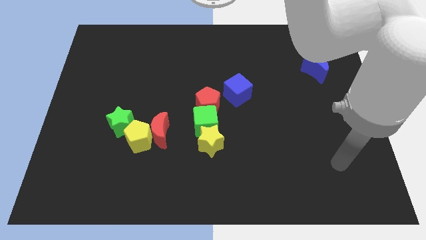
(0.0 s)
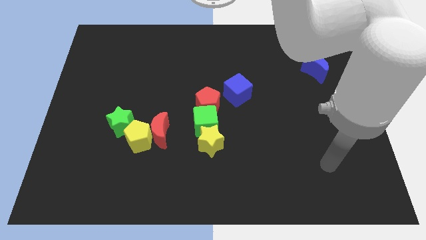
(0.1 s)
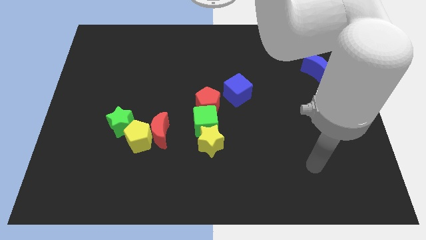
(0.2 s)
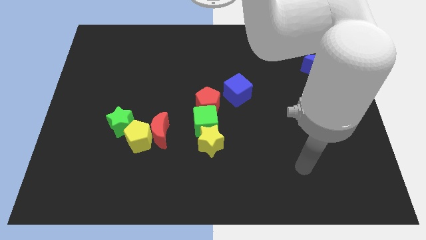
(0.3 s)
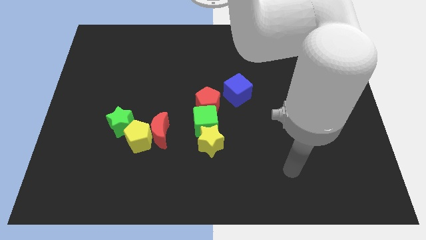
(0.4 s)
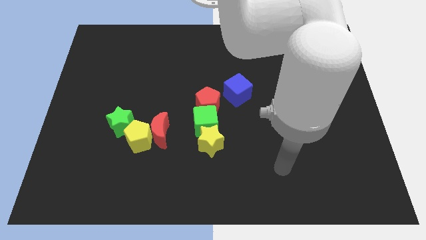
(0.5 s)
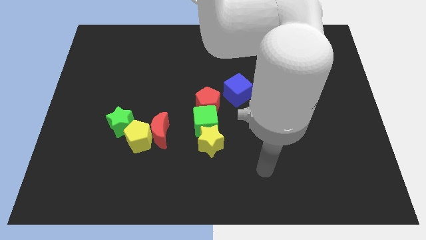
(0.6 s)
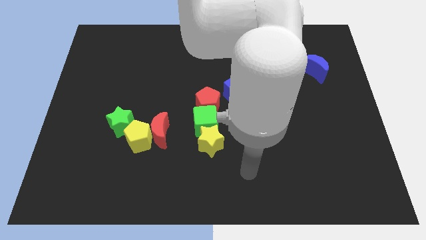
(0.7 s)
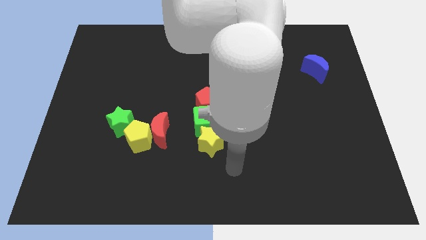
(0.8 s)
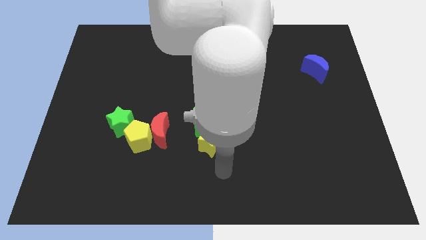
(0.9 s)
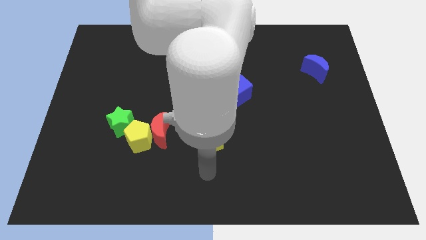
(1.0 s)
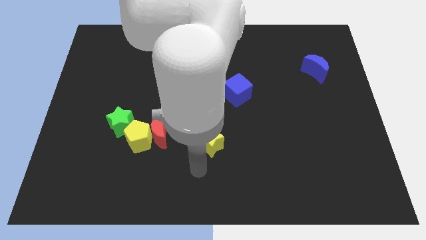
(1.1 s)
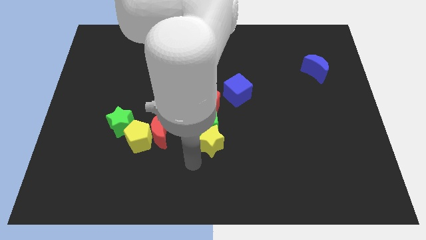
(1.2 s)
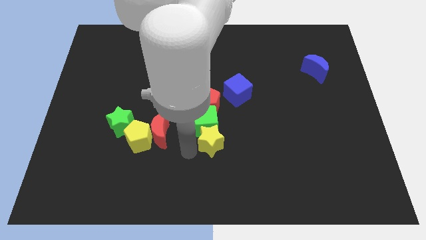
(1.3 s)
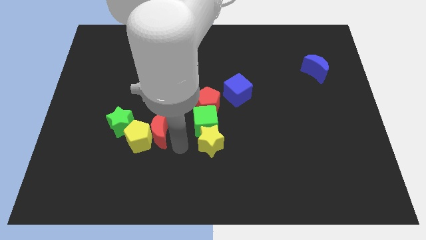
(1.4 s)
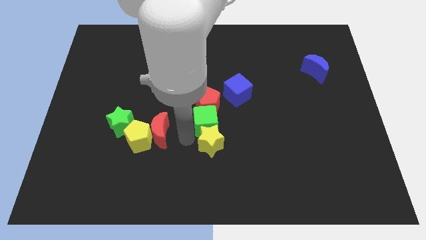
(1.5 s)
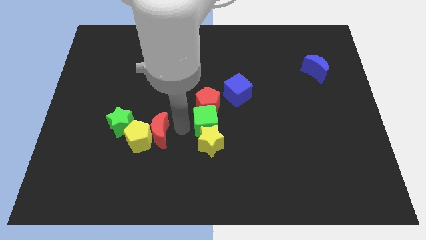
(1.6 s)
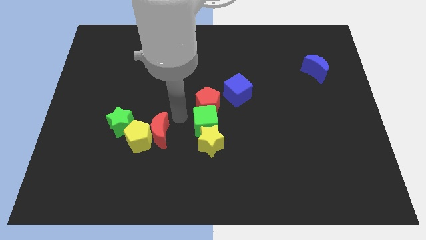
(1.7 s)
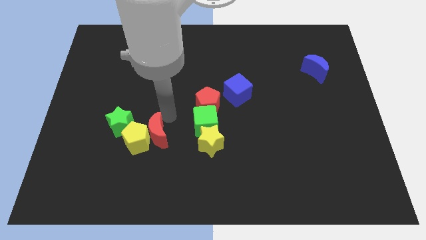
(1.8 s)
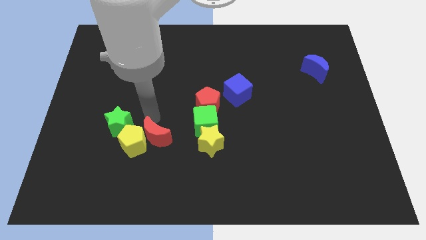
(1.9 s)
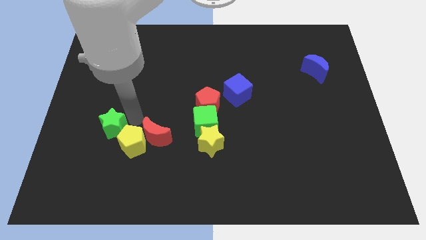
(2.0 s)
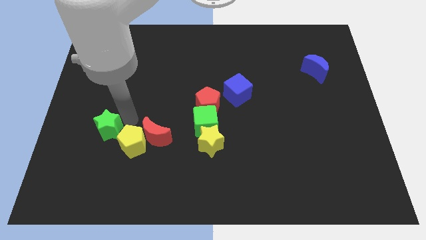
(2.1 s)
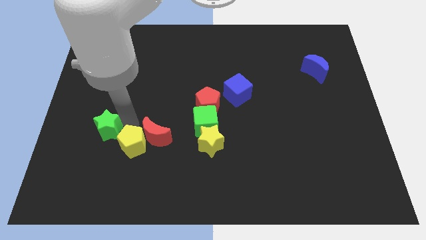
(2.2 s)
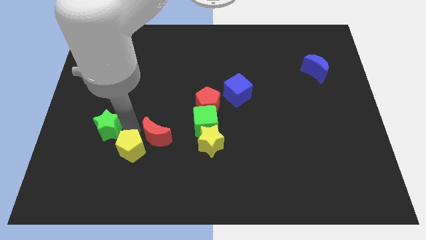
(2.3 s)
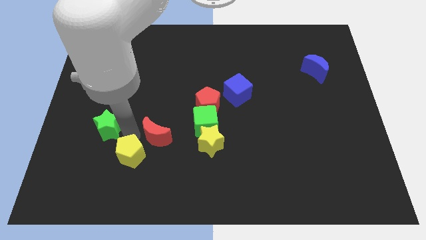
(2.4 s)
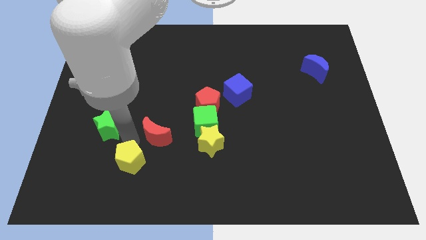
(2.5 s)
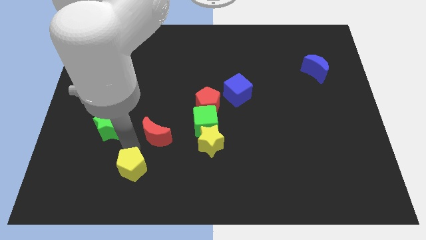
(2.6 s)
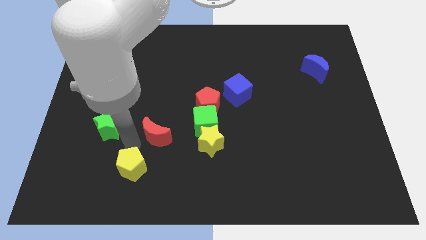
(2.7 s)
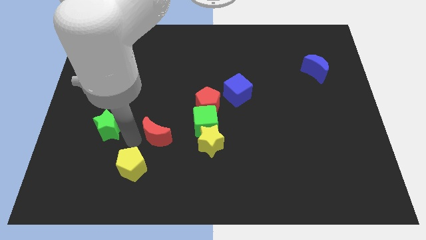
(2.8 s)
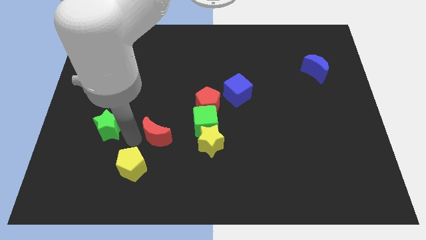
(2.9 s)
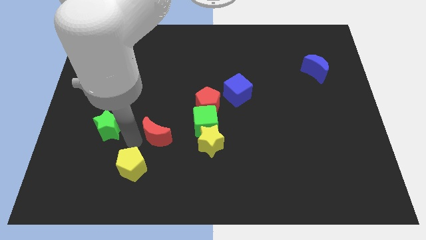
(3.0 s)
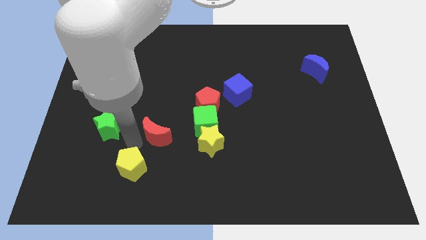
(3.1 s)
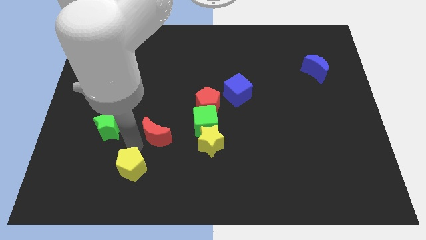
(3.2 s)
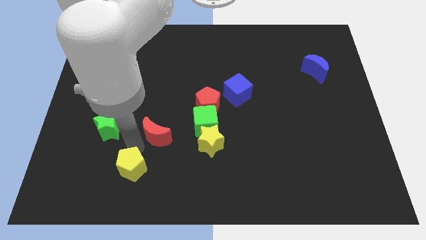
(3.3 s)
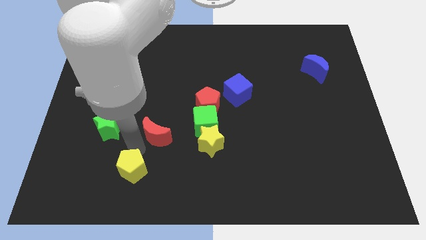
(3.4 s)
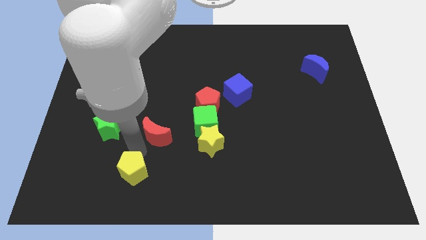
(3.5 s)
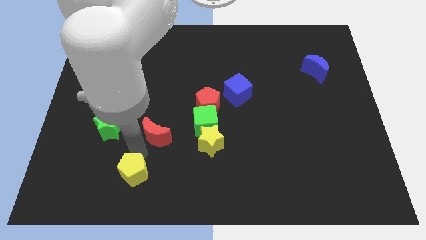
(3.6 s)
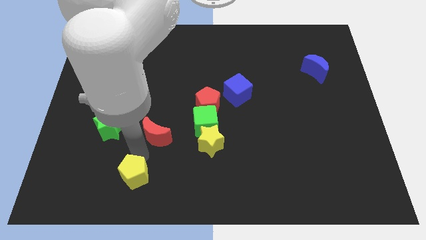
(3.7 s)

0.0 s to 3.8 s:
move the yellow pentagon away from the red moon and green star

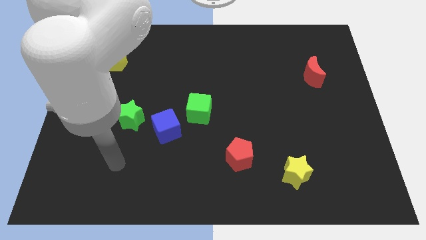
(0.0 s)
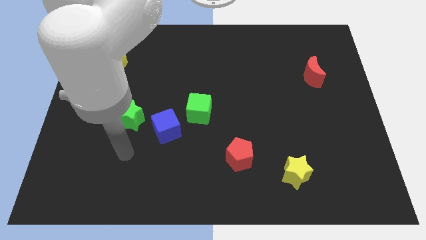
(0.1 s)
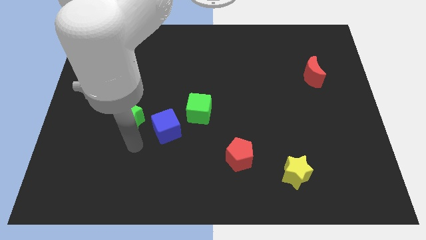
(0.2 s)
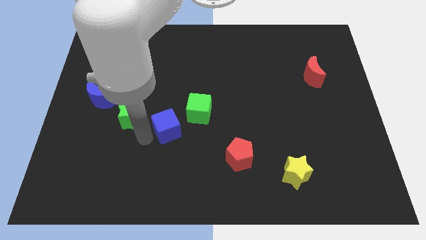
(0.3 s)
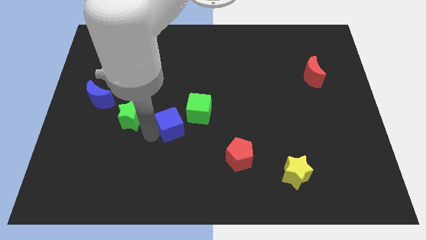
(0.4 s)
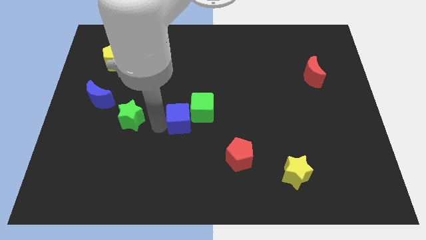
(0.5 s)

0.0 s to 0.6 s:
move the green star away from the blue cube

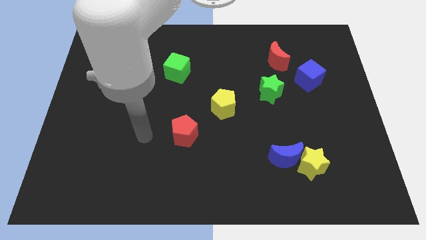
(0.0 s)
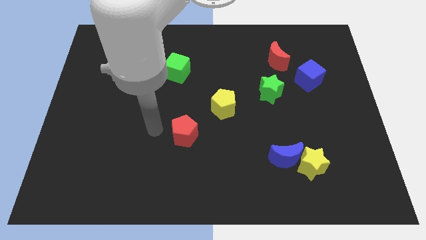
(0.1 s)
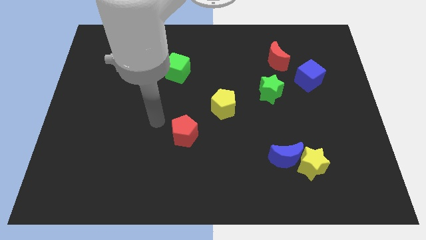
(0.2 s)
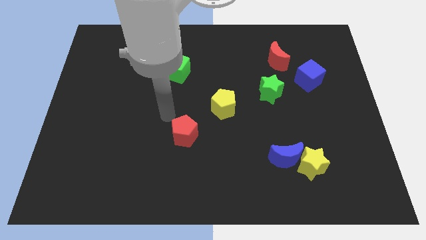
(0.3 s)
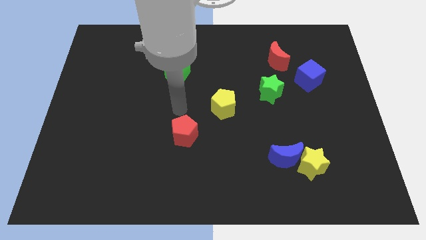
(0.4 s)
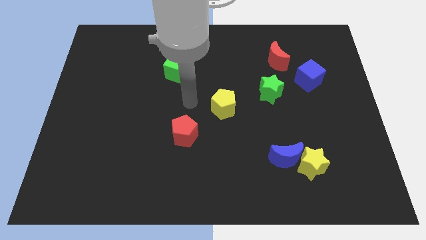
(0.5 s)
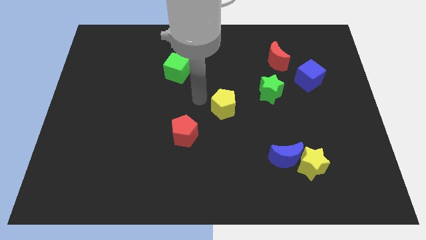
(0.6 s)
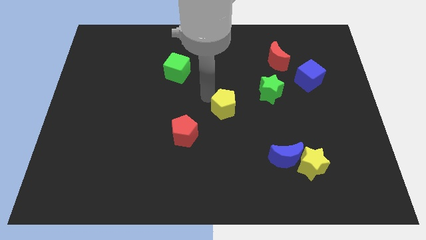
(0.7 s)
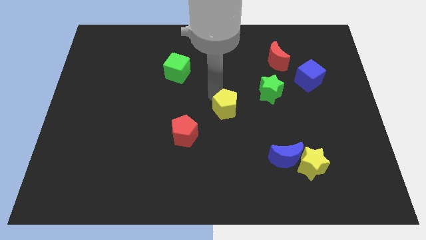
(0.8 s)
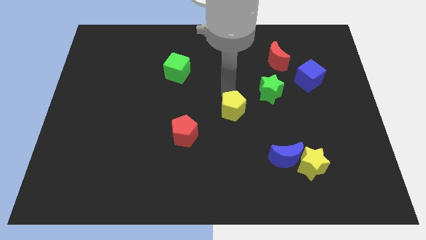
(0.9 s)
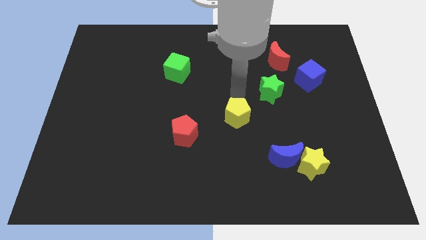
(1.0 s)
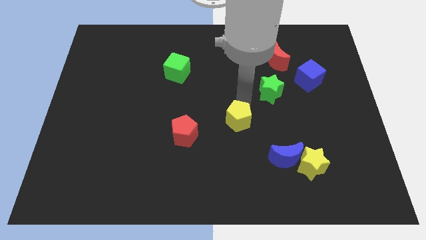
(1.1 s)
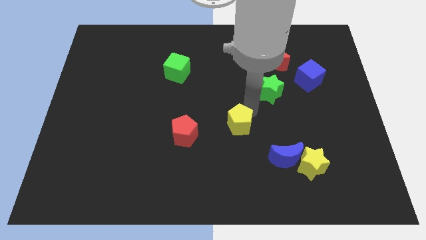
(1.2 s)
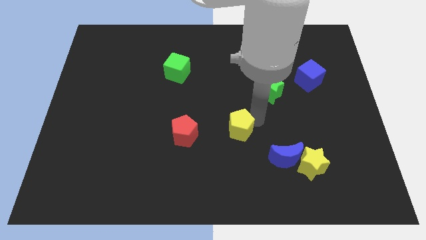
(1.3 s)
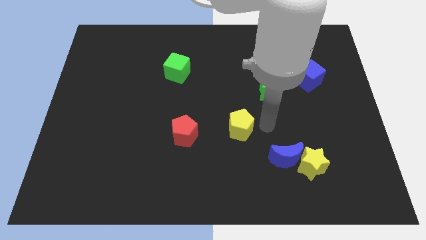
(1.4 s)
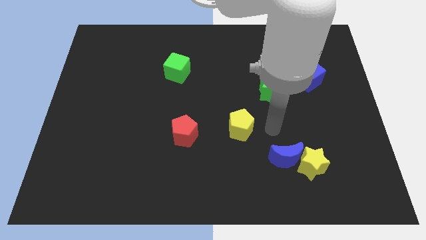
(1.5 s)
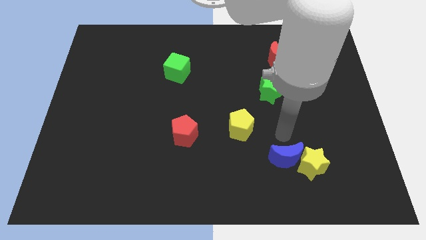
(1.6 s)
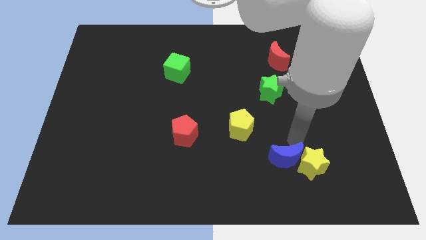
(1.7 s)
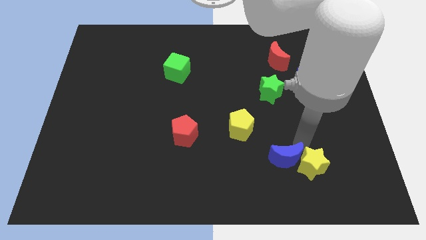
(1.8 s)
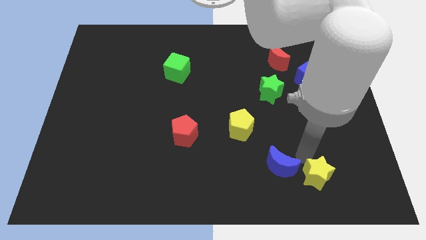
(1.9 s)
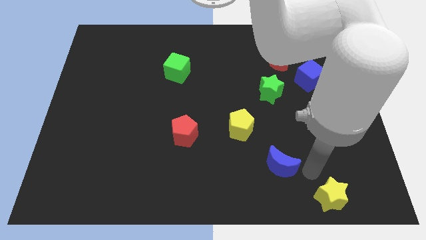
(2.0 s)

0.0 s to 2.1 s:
move the blue moon away from the yellow star

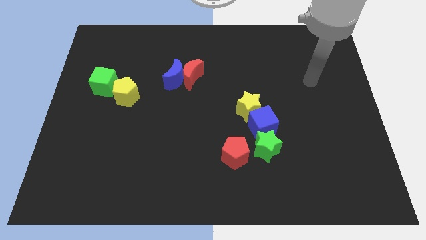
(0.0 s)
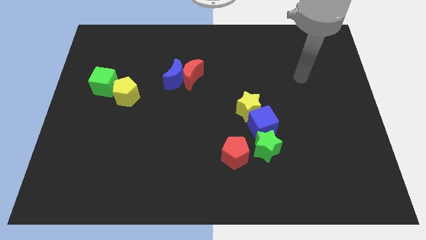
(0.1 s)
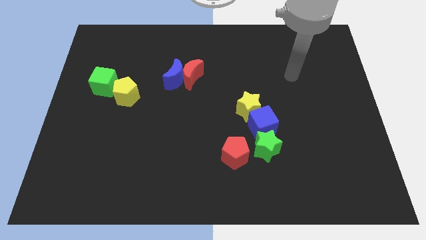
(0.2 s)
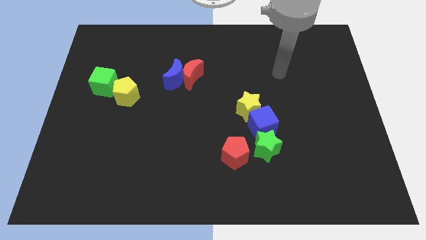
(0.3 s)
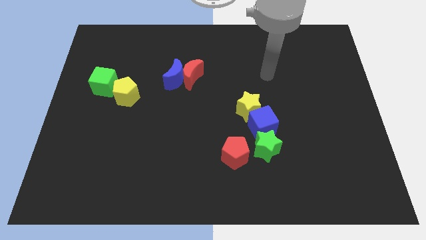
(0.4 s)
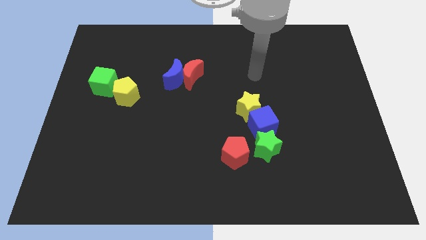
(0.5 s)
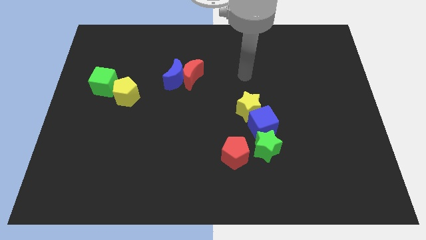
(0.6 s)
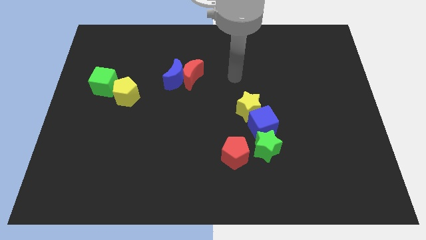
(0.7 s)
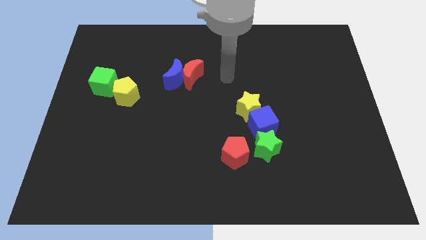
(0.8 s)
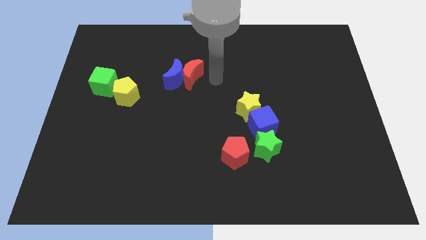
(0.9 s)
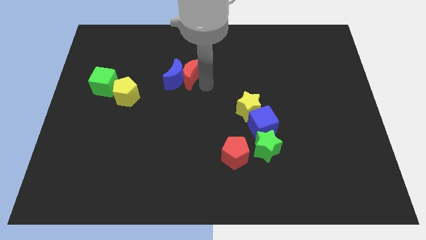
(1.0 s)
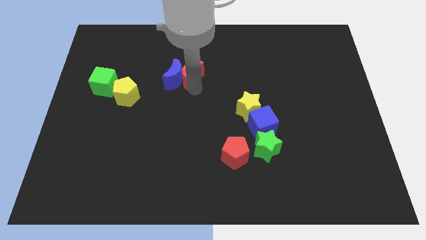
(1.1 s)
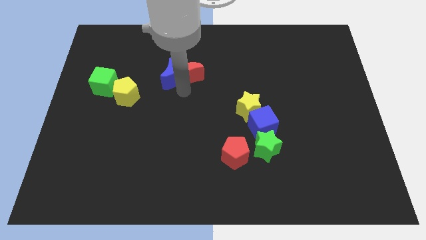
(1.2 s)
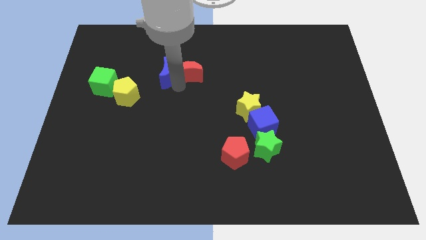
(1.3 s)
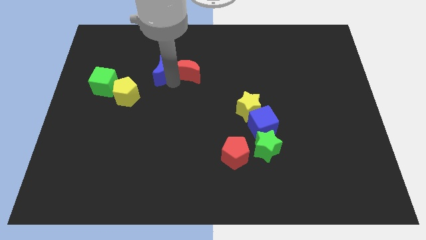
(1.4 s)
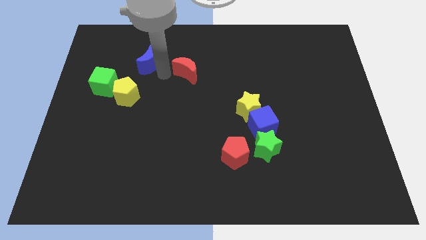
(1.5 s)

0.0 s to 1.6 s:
pull the red moon apart from the blue moon

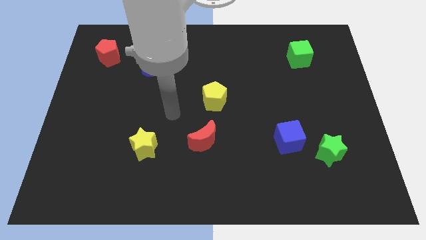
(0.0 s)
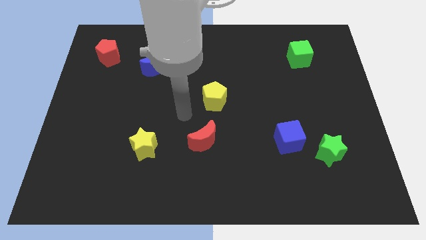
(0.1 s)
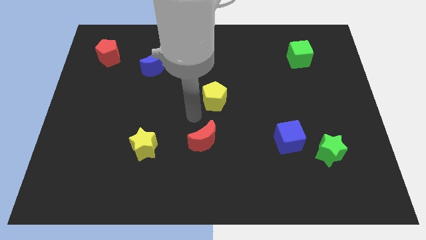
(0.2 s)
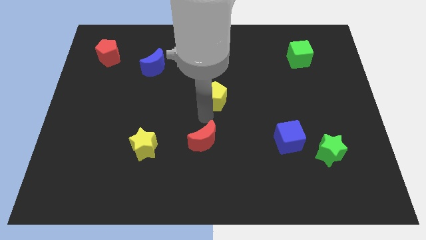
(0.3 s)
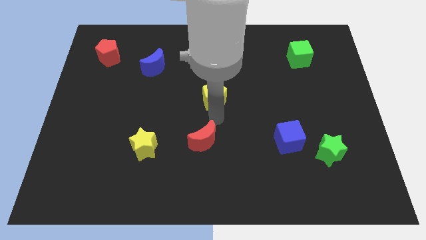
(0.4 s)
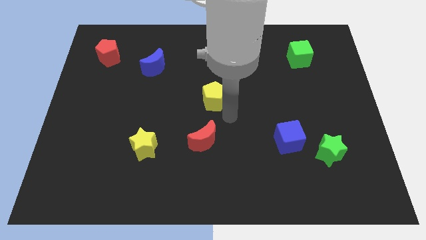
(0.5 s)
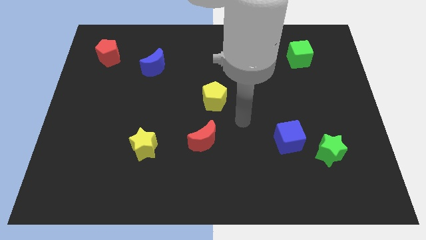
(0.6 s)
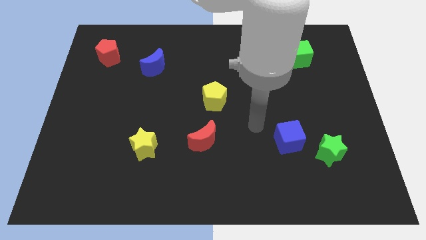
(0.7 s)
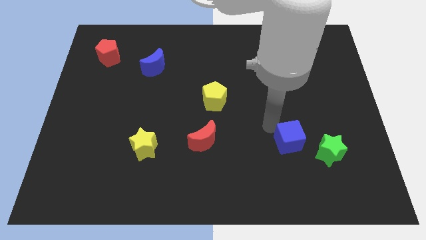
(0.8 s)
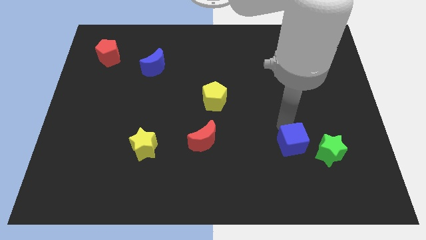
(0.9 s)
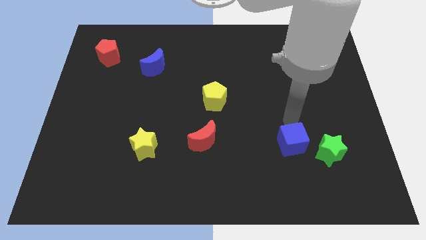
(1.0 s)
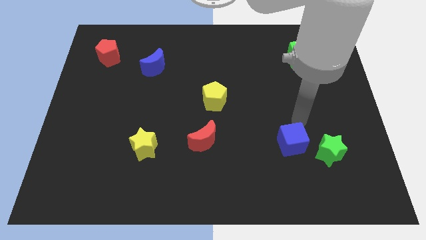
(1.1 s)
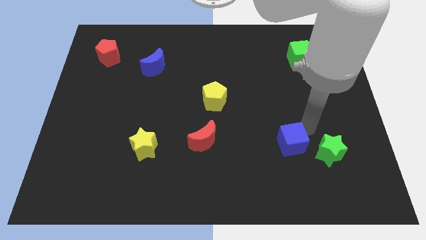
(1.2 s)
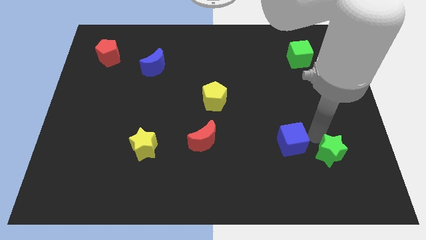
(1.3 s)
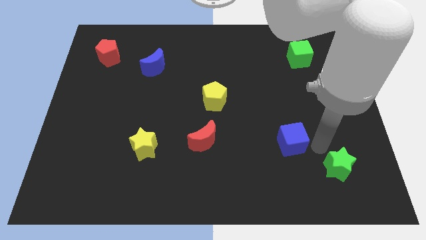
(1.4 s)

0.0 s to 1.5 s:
separate the blue cube from the green star
